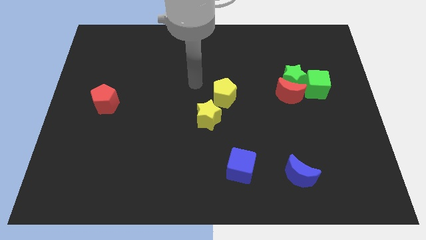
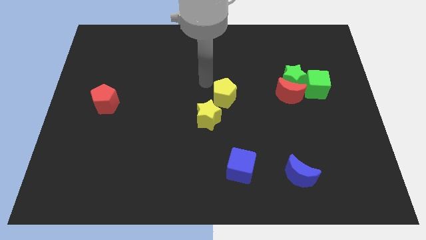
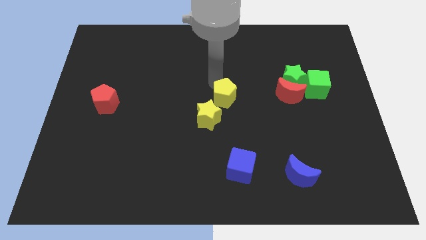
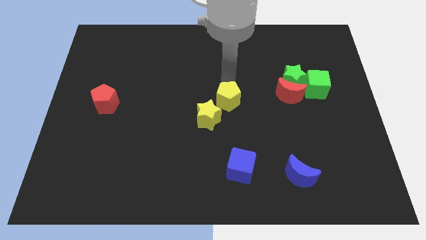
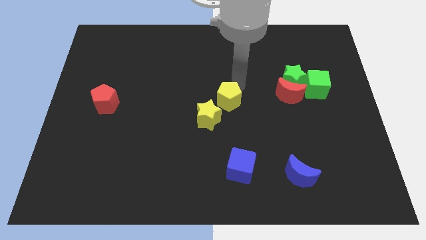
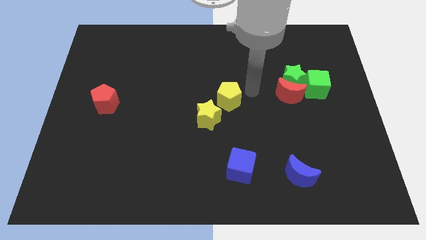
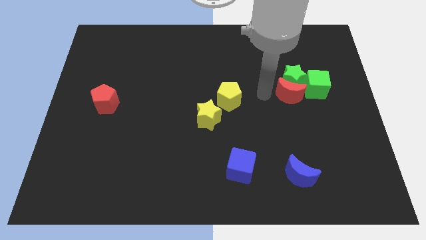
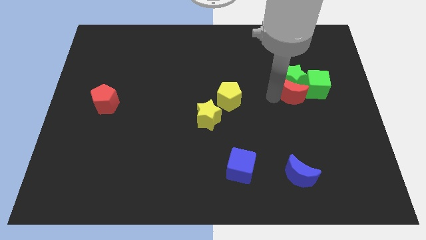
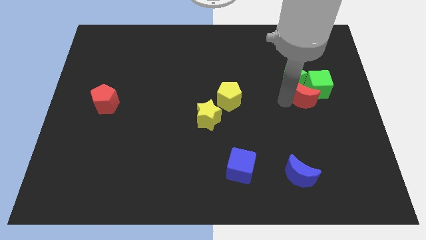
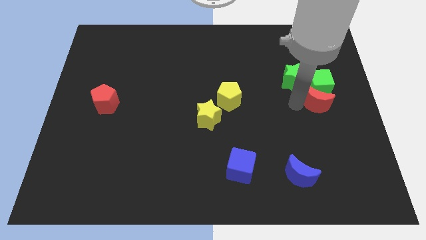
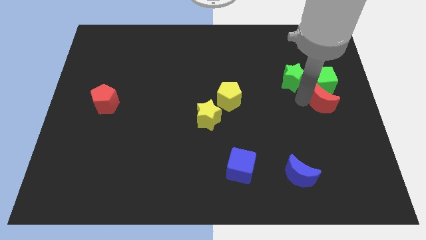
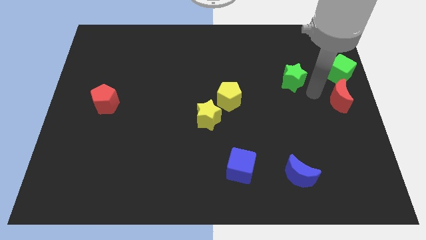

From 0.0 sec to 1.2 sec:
move the green star away from the red moon and green cube

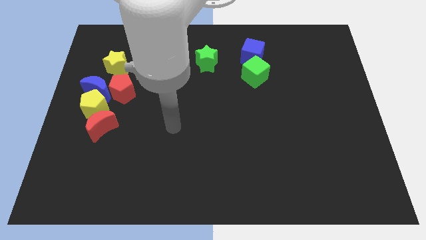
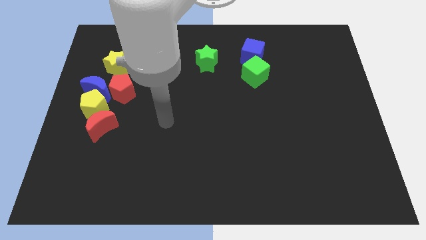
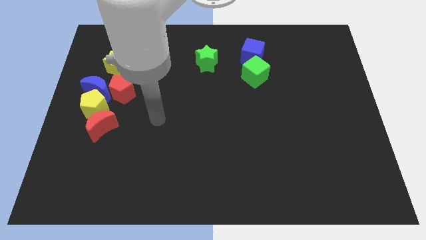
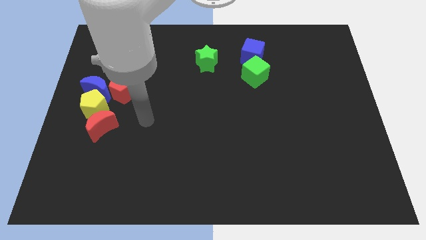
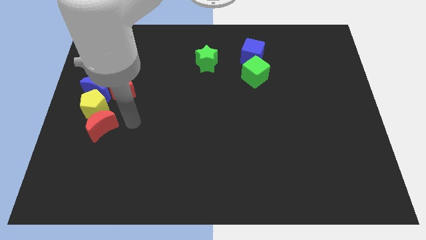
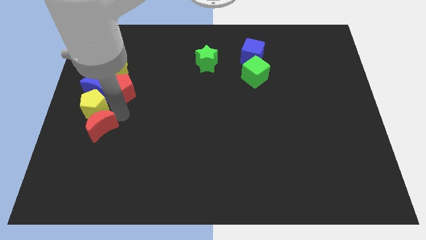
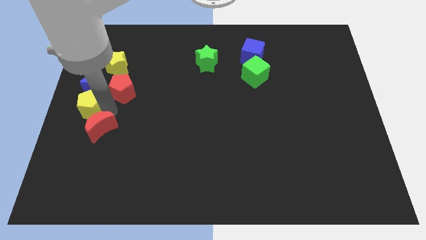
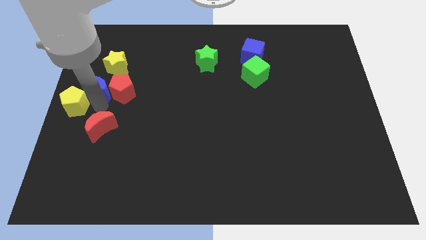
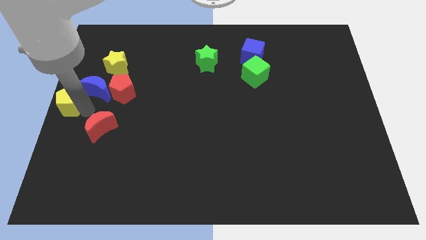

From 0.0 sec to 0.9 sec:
separate the red moon from the yellow pentagon

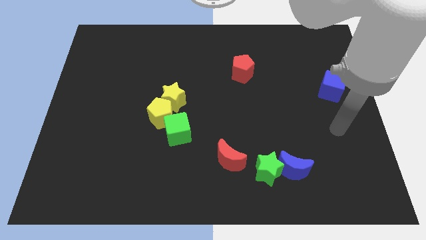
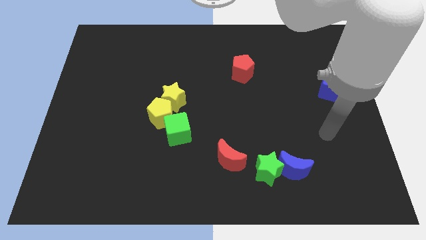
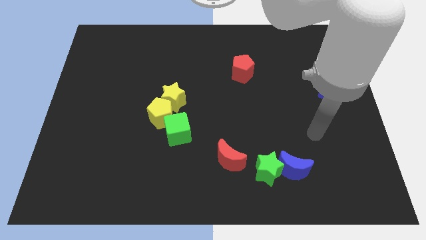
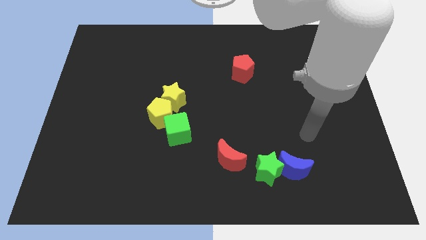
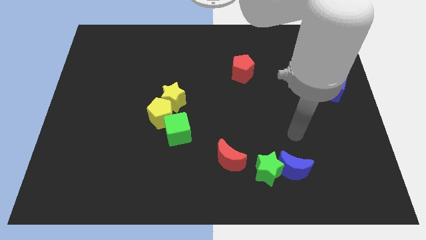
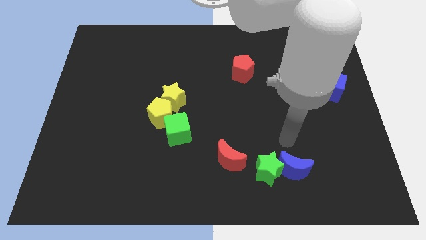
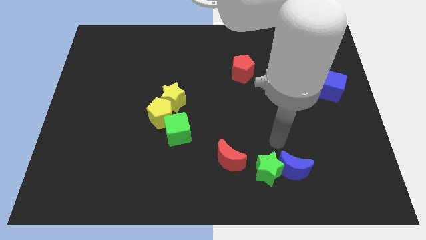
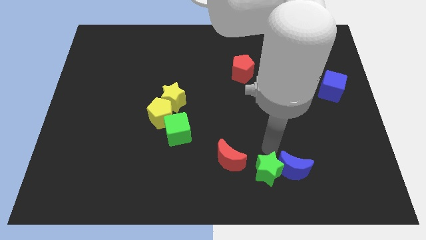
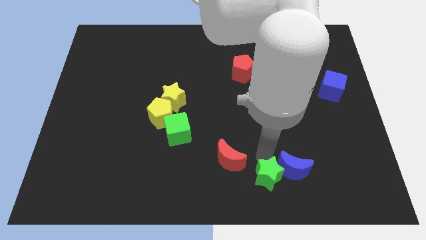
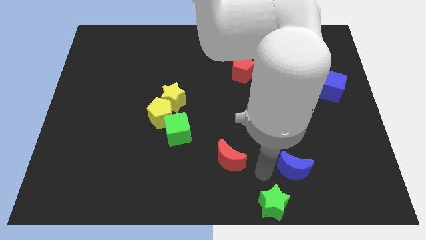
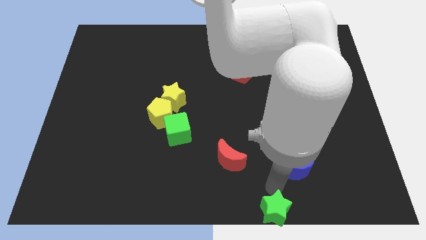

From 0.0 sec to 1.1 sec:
pull the blue moon apart from the green star

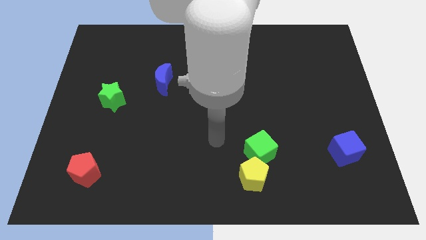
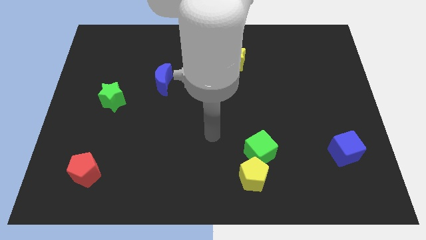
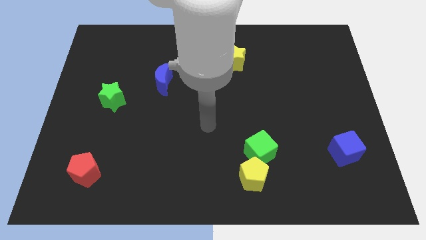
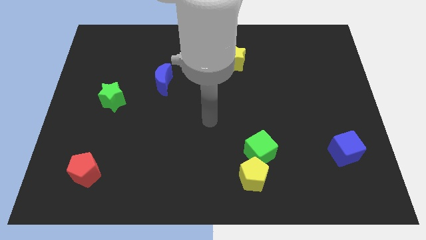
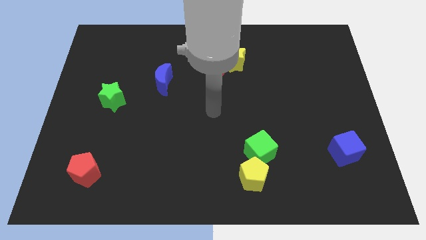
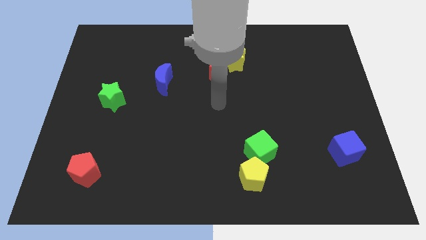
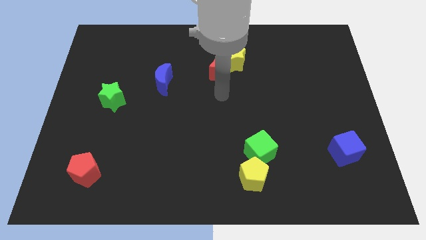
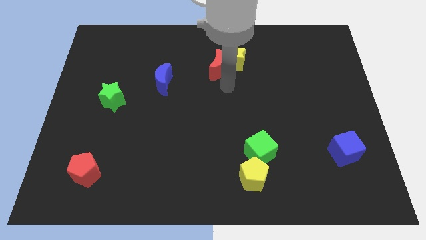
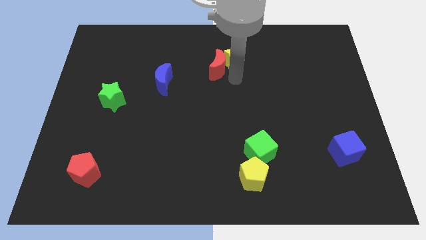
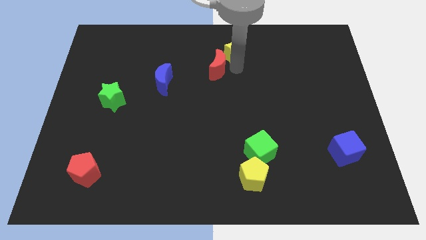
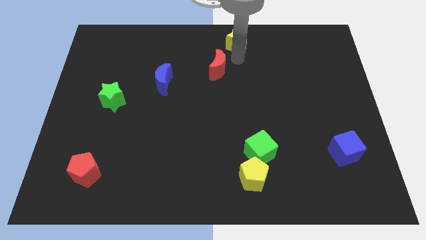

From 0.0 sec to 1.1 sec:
move the red moon away from the yellow star

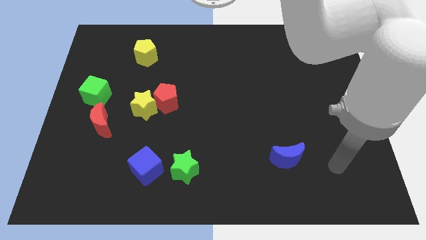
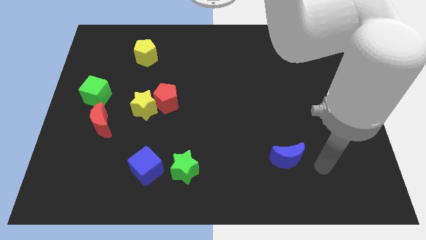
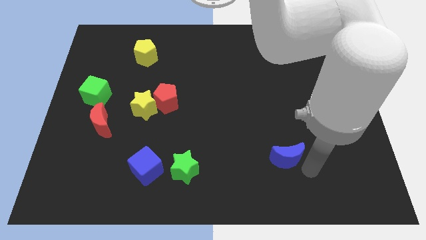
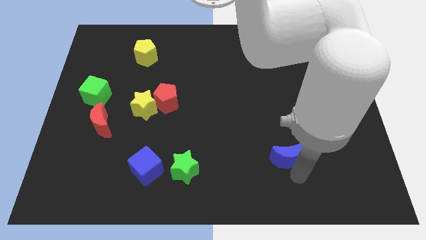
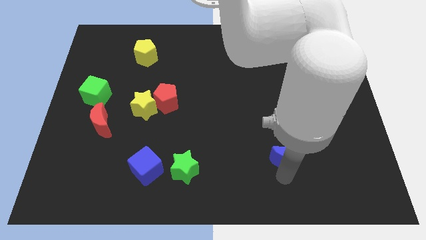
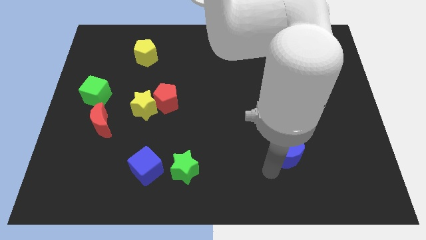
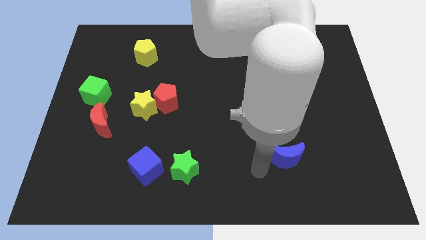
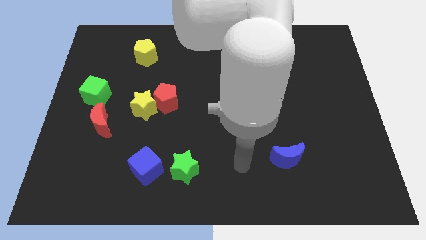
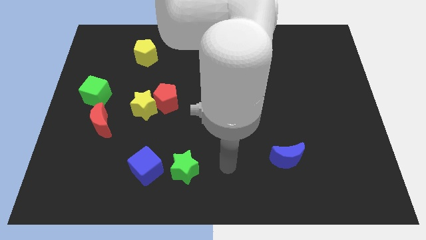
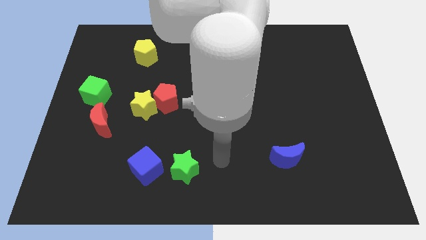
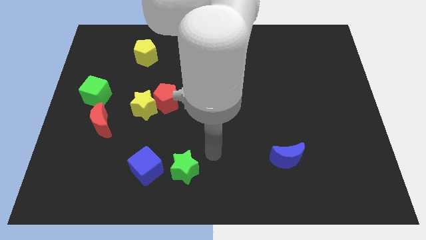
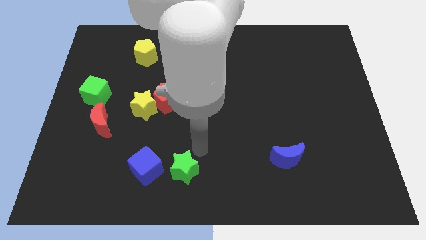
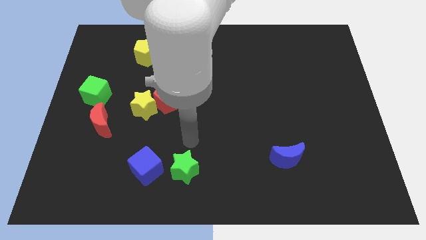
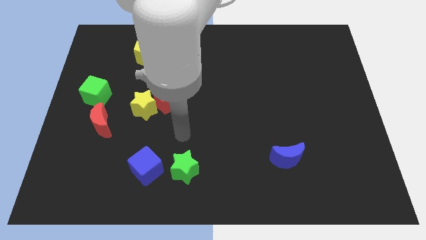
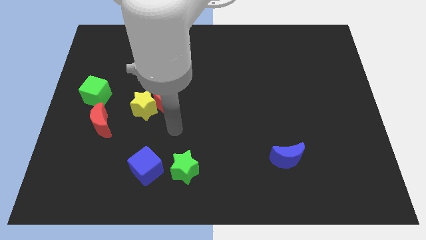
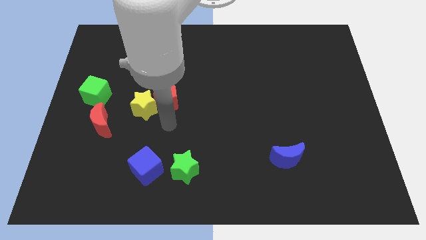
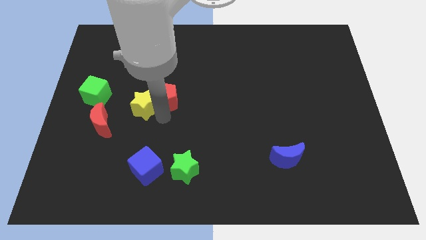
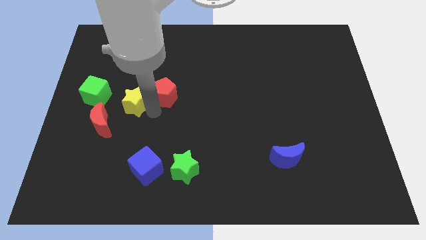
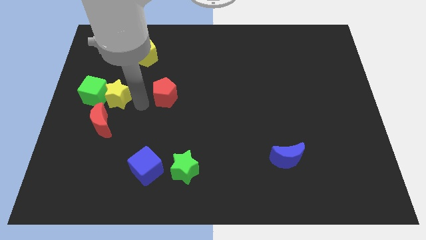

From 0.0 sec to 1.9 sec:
pull the red pentagon apart from the yellow star

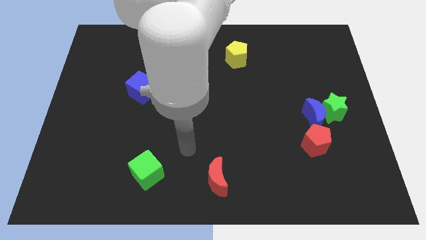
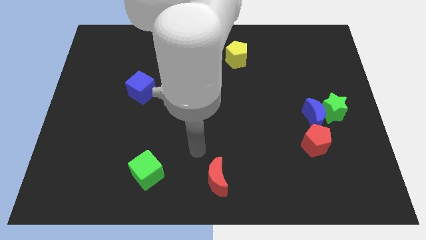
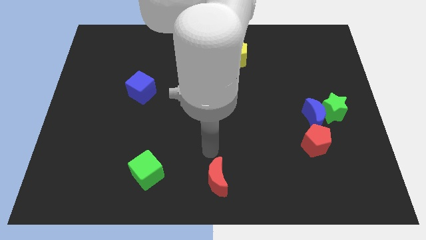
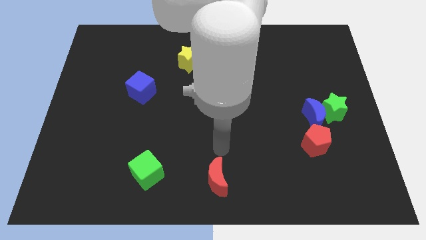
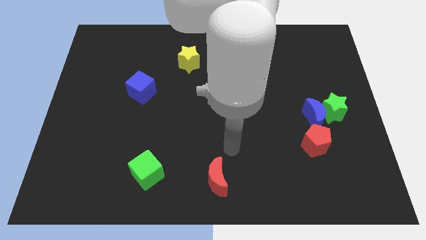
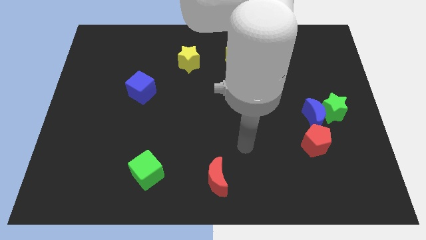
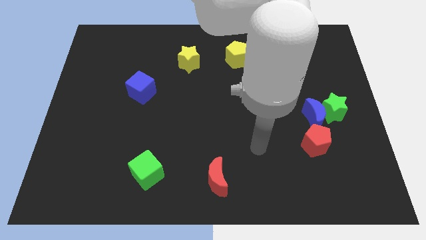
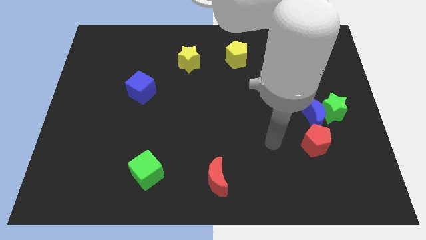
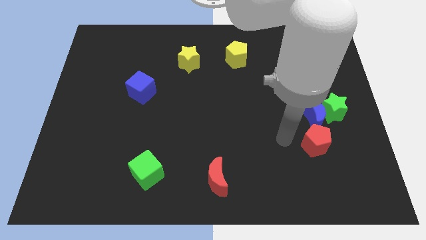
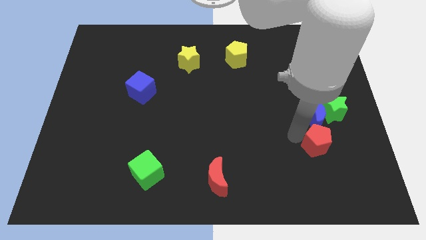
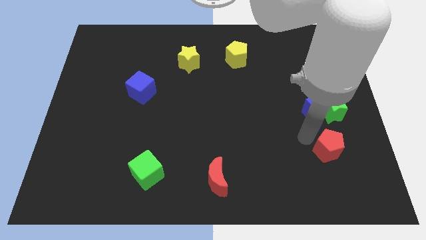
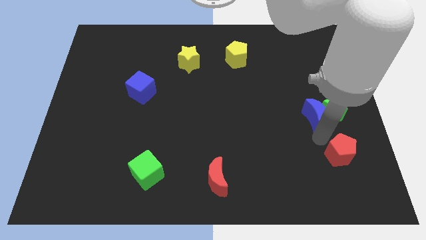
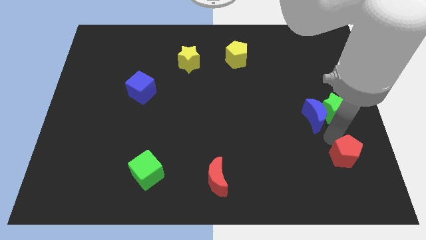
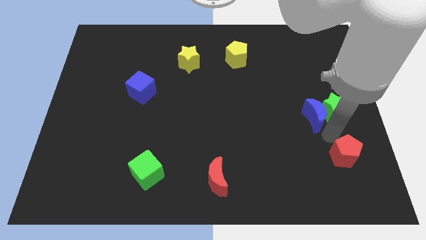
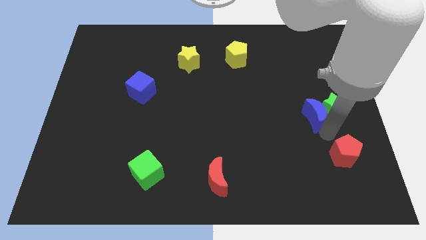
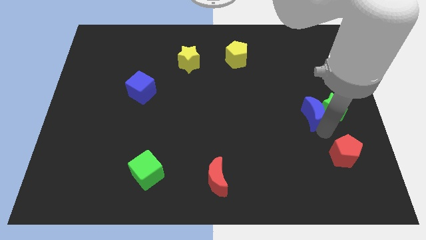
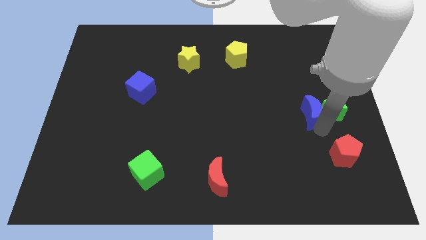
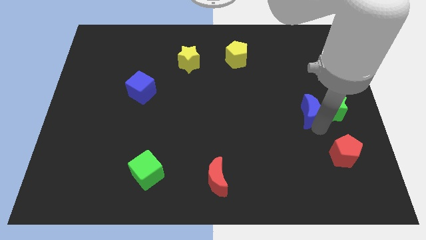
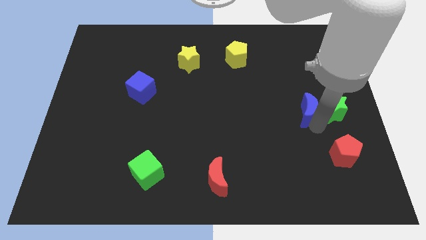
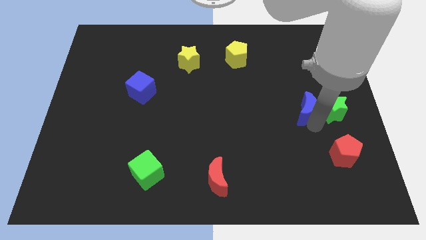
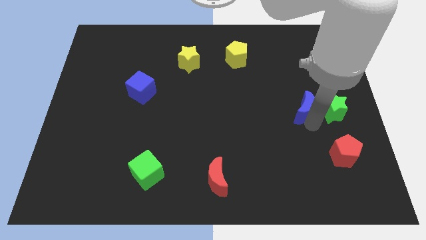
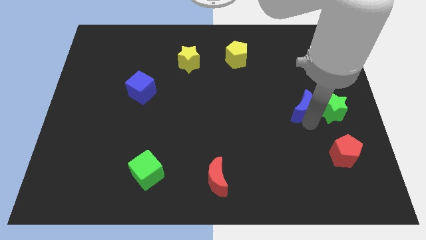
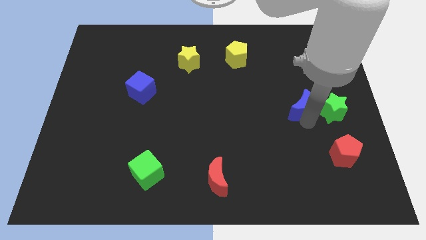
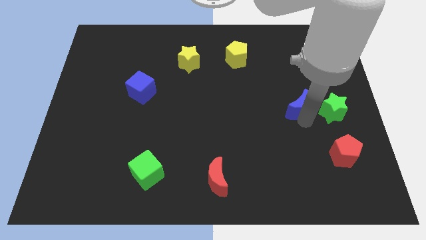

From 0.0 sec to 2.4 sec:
separate the blue moon from the green star and red pentagon

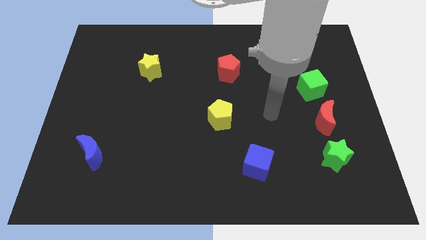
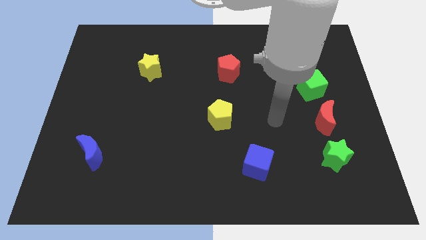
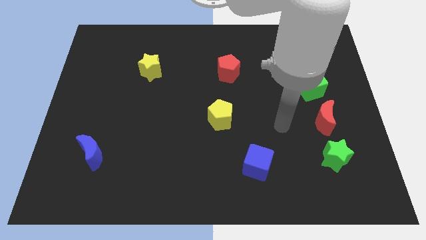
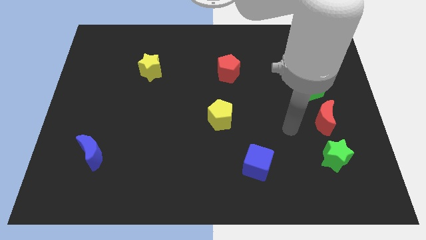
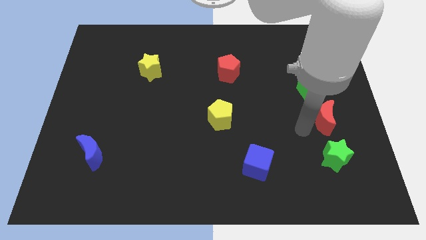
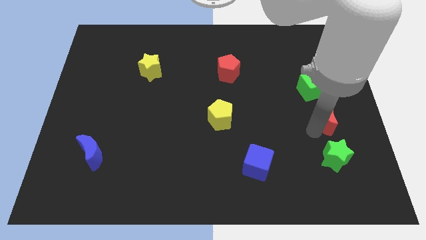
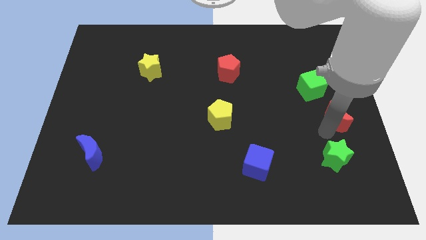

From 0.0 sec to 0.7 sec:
separate the green star from the red moon
